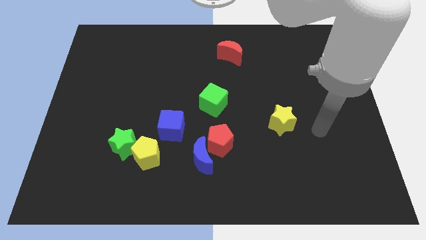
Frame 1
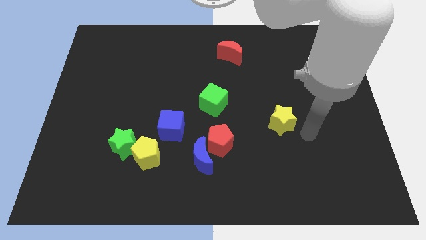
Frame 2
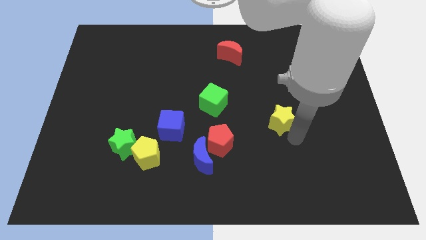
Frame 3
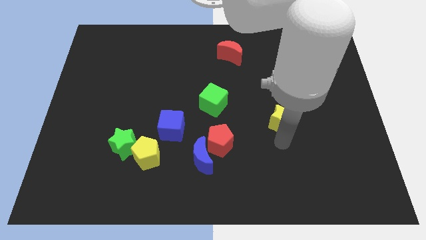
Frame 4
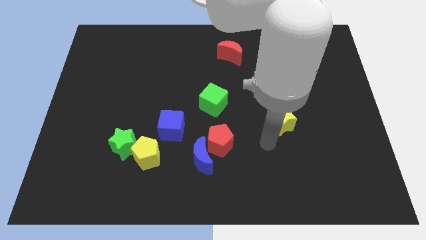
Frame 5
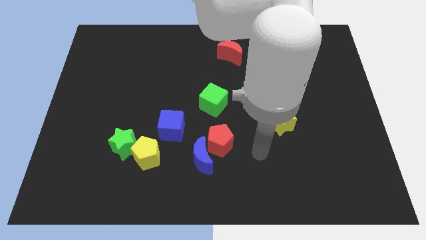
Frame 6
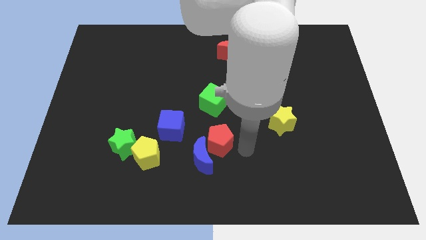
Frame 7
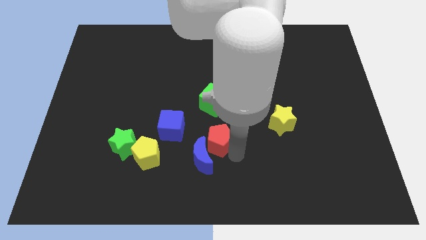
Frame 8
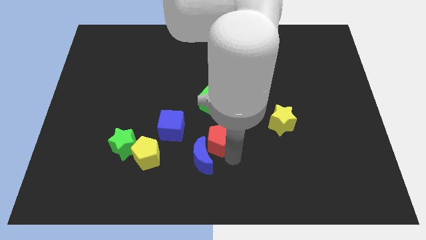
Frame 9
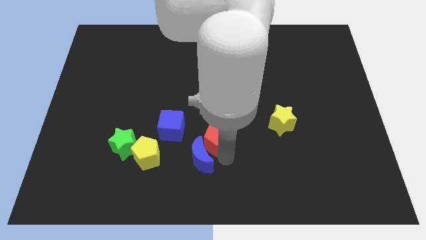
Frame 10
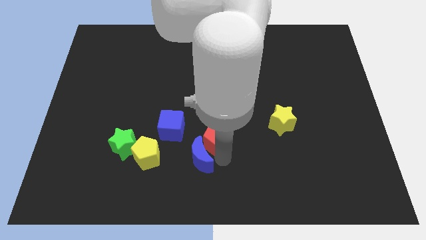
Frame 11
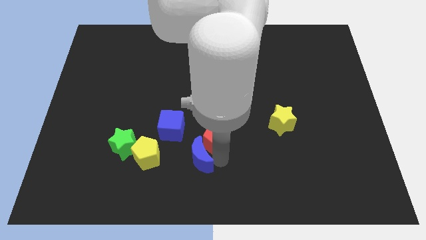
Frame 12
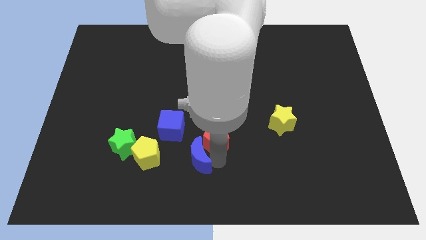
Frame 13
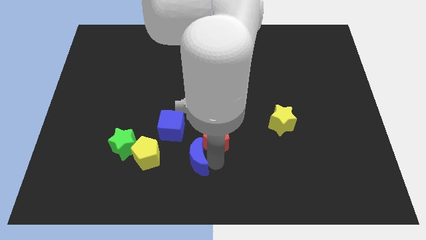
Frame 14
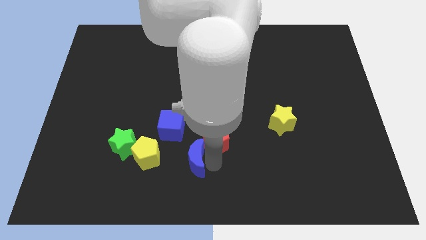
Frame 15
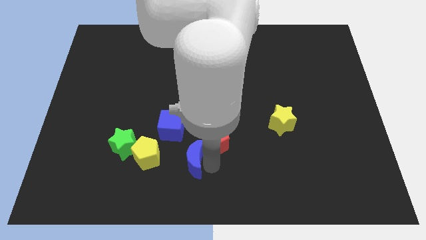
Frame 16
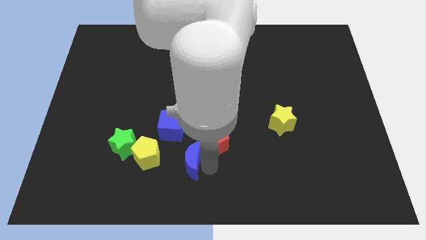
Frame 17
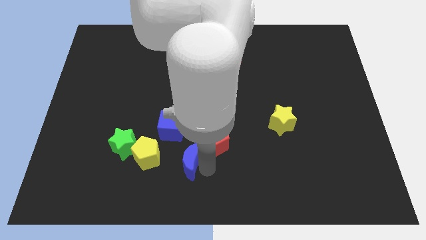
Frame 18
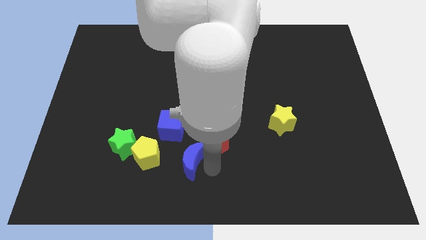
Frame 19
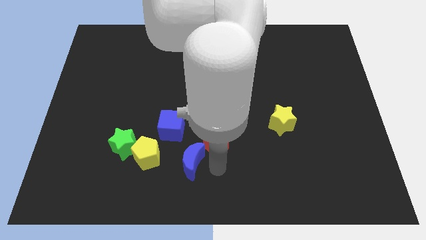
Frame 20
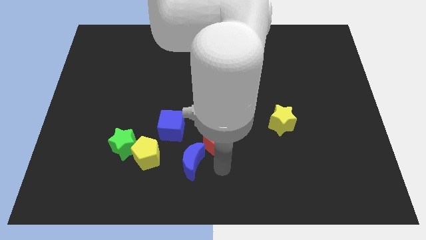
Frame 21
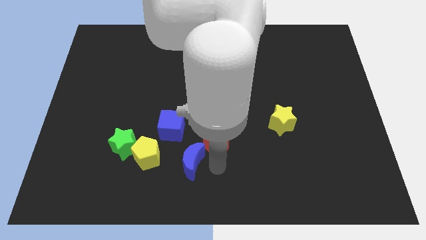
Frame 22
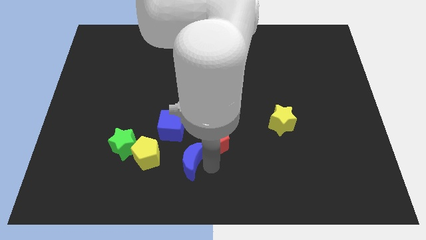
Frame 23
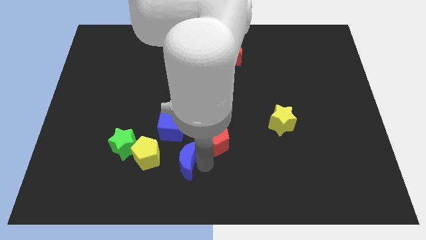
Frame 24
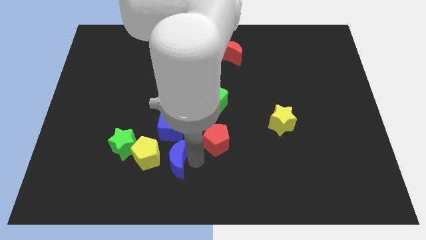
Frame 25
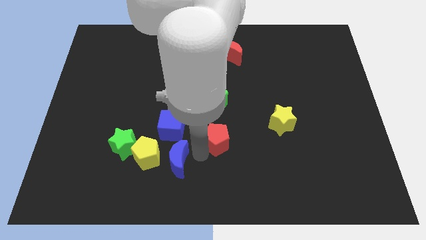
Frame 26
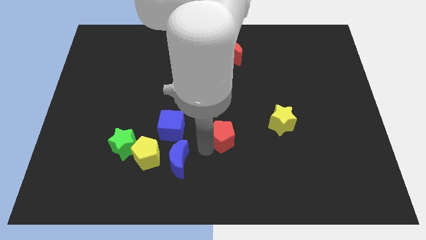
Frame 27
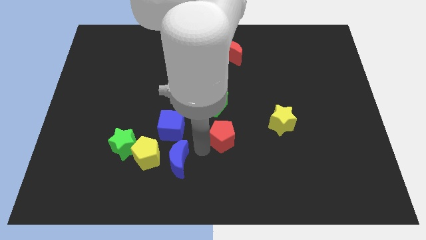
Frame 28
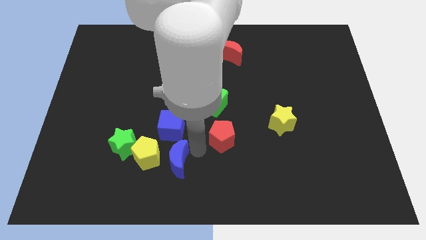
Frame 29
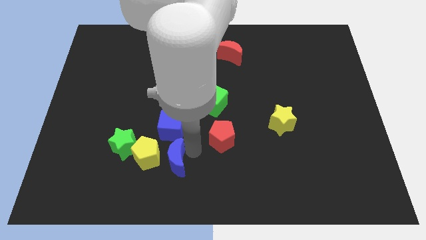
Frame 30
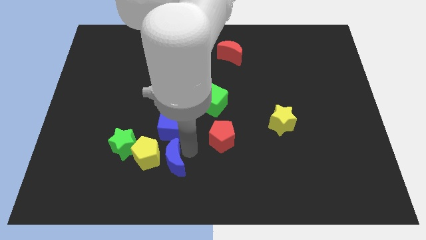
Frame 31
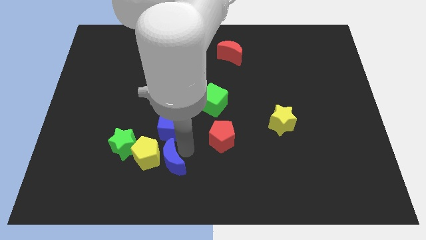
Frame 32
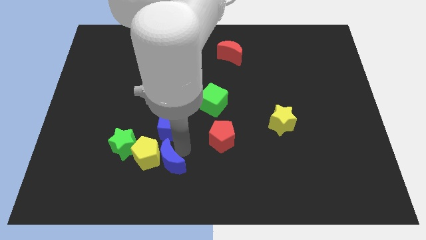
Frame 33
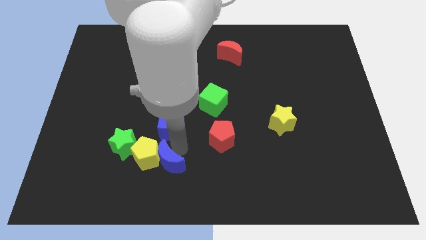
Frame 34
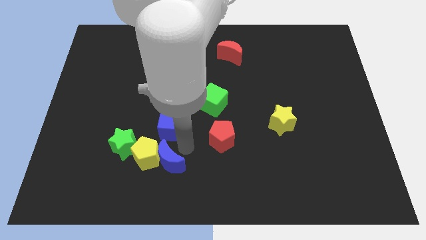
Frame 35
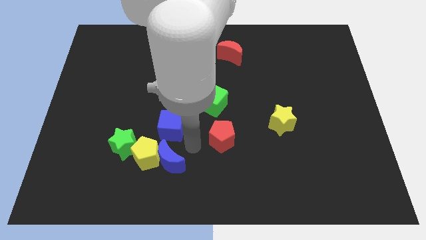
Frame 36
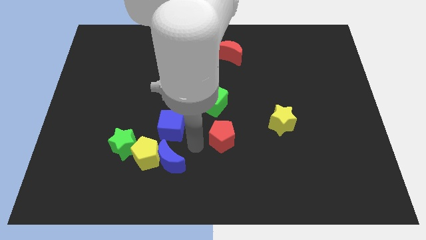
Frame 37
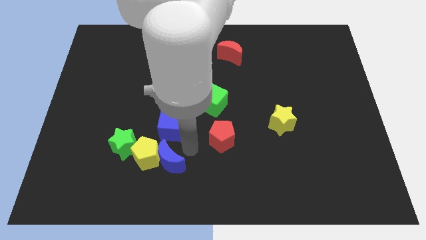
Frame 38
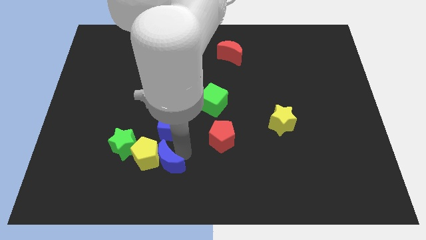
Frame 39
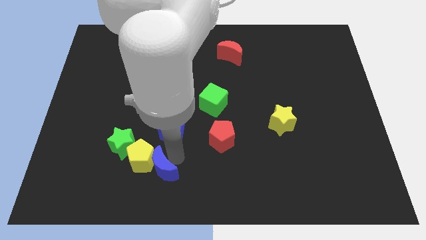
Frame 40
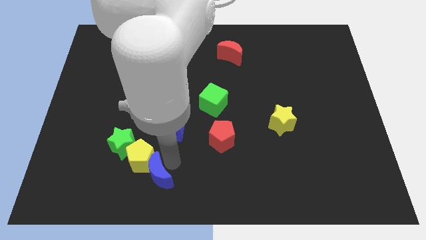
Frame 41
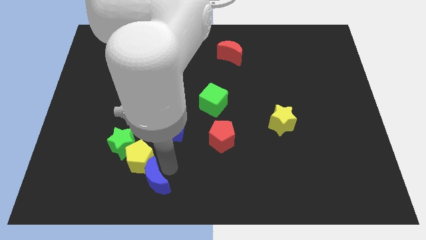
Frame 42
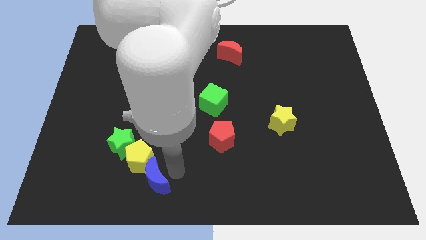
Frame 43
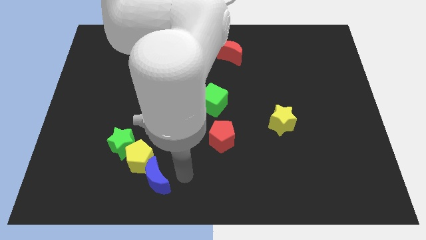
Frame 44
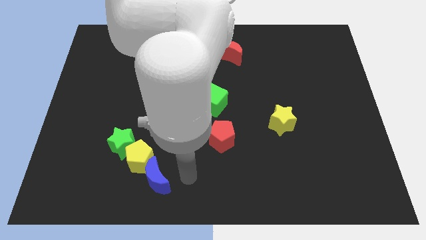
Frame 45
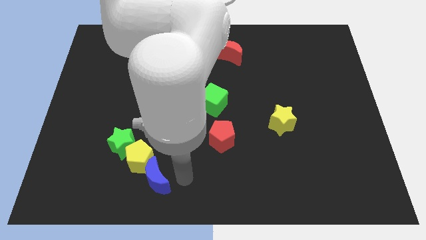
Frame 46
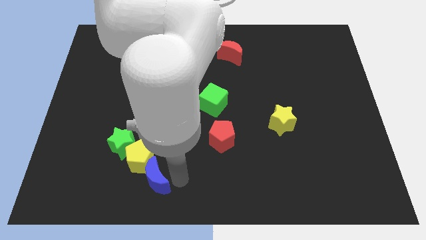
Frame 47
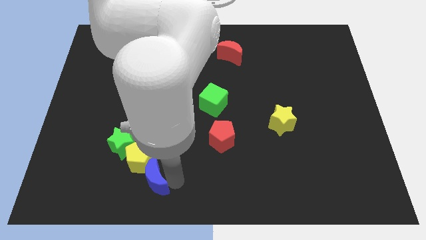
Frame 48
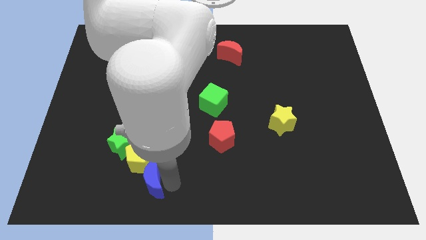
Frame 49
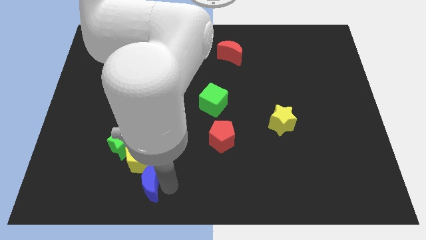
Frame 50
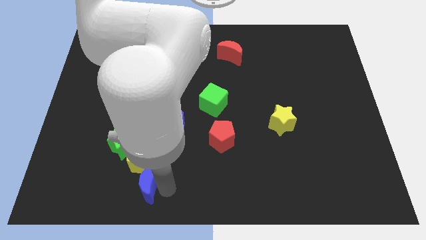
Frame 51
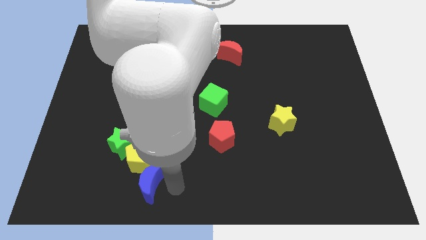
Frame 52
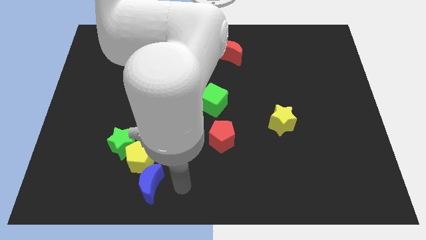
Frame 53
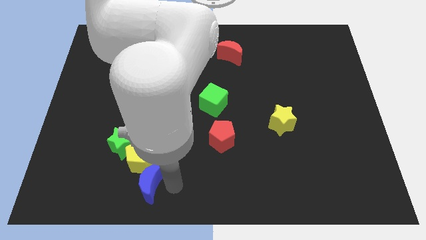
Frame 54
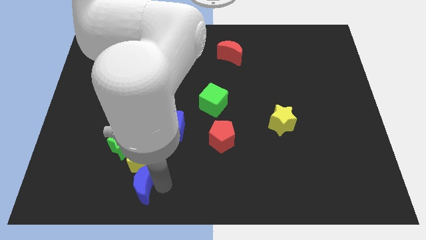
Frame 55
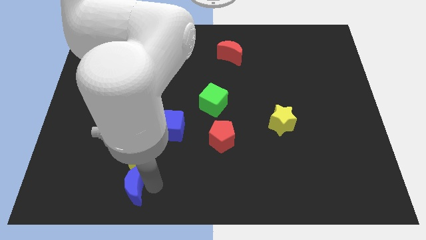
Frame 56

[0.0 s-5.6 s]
move the blue moon to the bottom left of the yellow pentagon

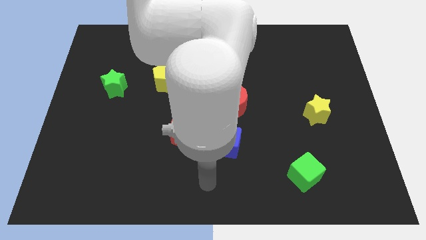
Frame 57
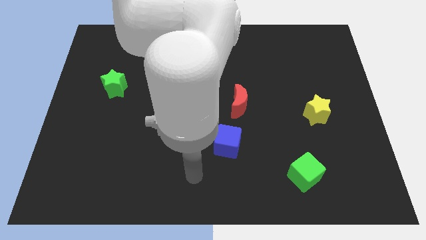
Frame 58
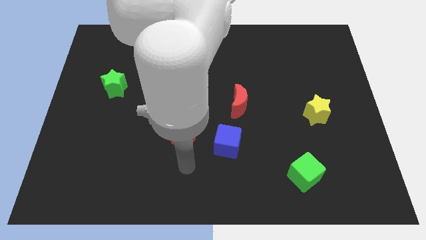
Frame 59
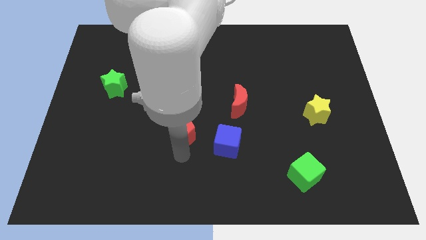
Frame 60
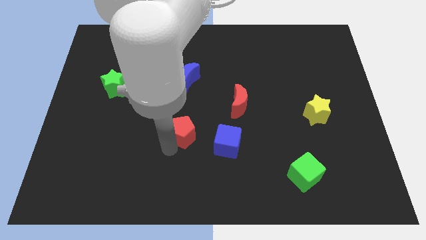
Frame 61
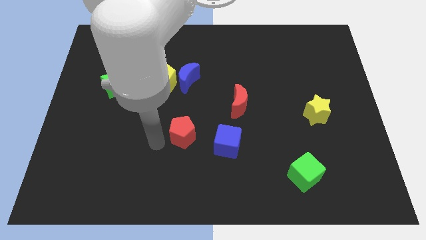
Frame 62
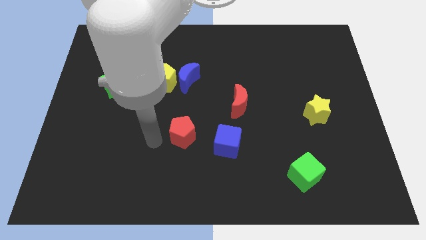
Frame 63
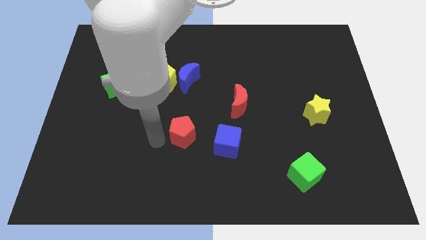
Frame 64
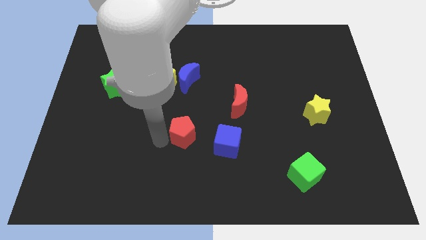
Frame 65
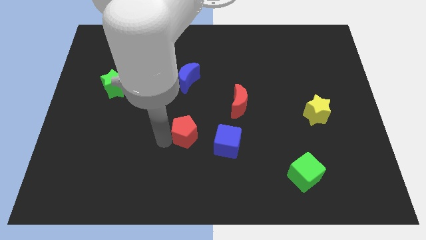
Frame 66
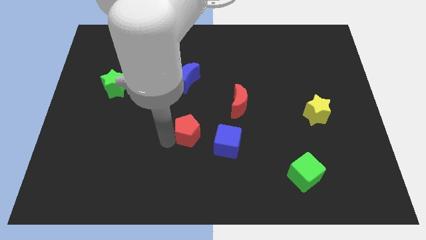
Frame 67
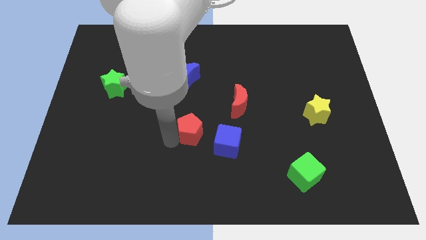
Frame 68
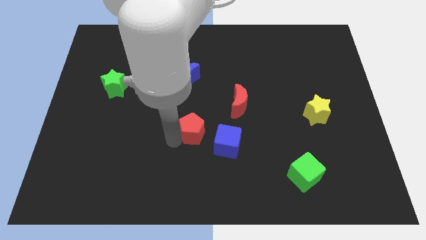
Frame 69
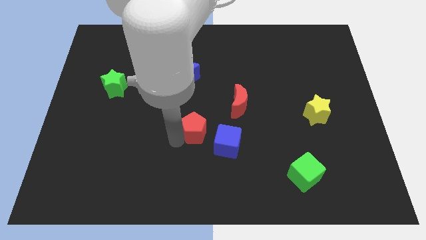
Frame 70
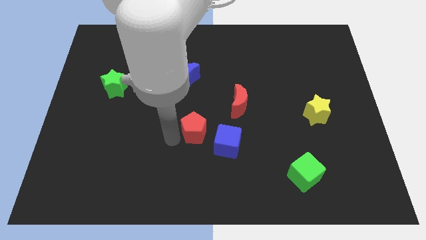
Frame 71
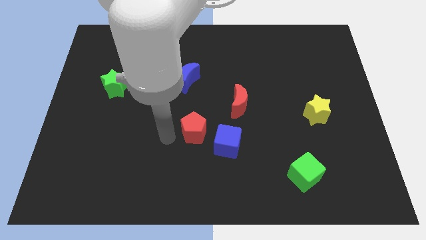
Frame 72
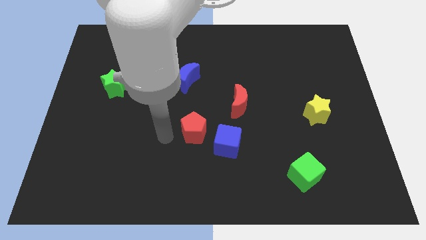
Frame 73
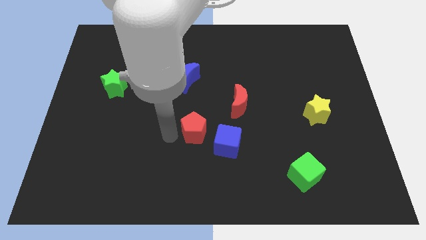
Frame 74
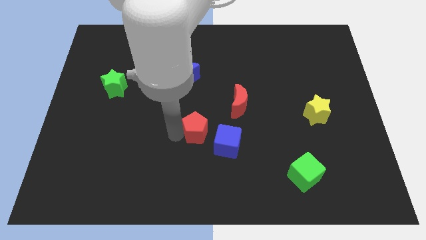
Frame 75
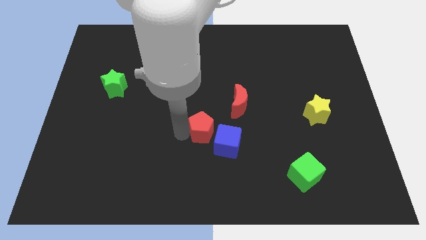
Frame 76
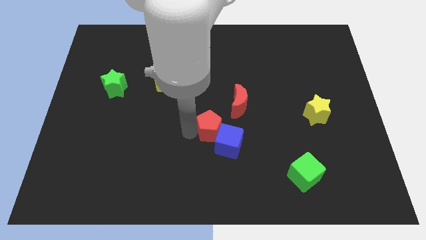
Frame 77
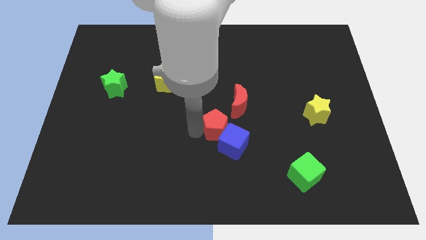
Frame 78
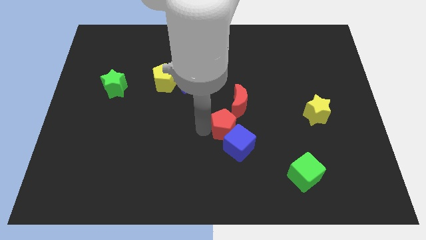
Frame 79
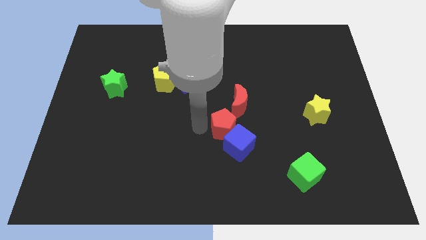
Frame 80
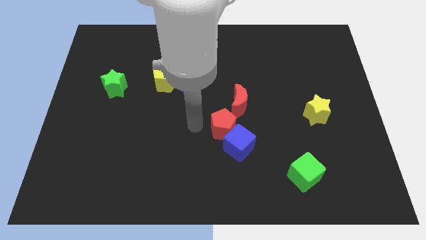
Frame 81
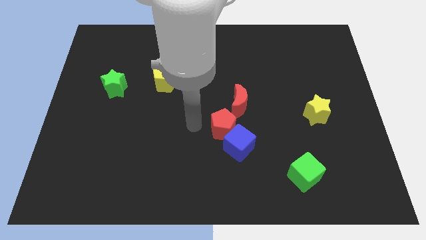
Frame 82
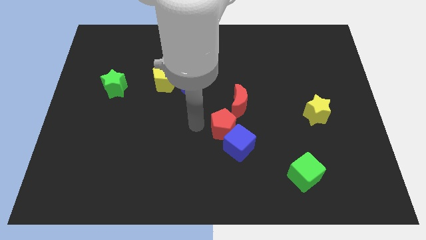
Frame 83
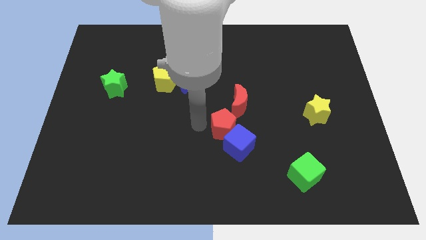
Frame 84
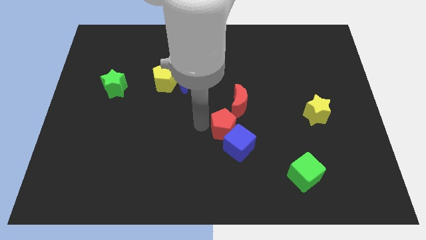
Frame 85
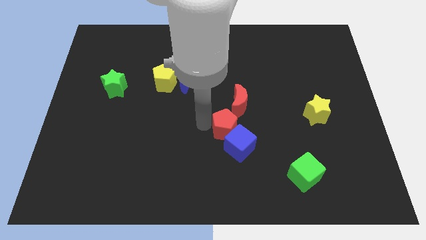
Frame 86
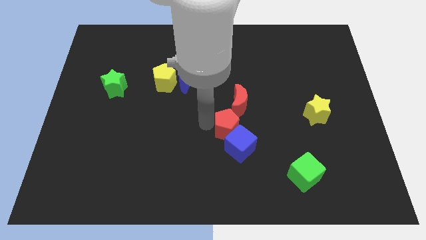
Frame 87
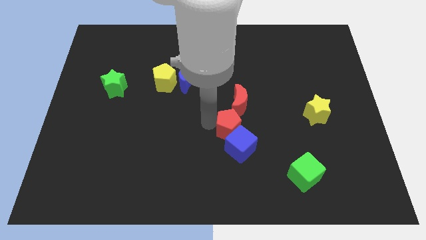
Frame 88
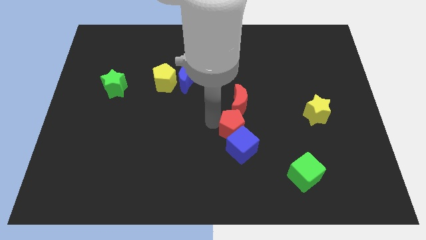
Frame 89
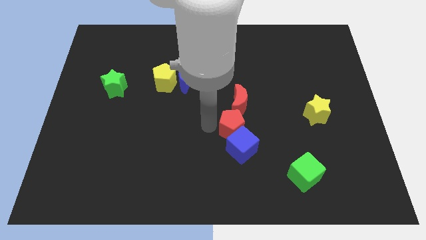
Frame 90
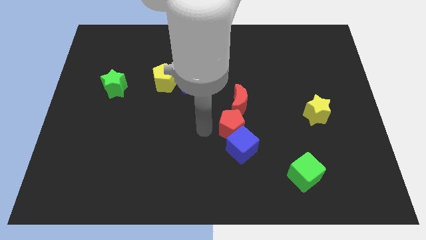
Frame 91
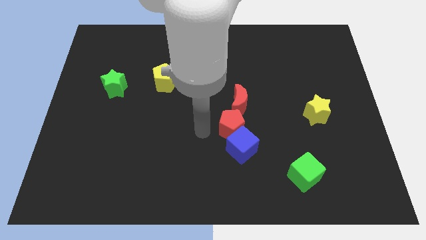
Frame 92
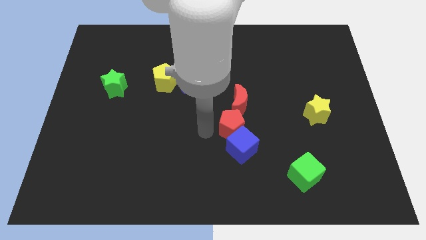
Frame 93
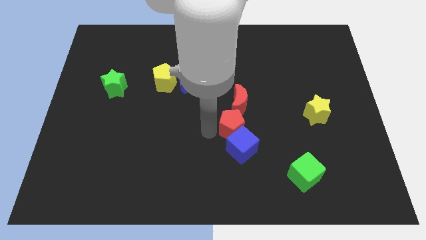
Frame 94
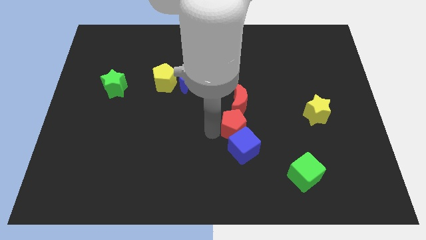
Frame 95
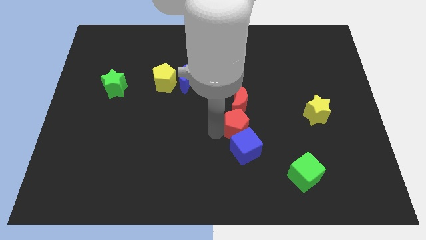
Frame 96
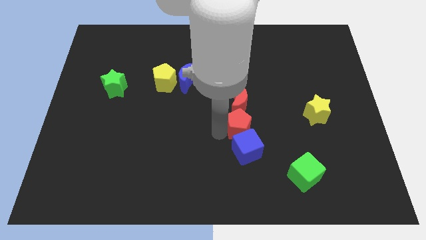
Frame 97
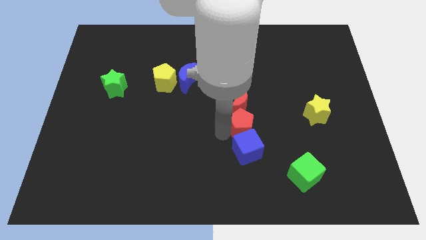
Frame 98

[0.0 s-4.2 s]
move the red pentagon to the bottom right side of the red moon
